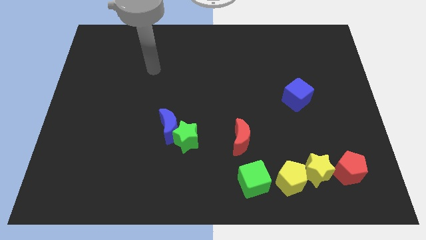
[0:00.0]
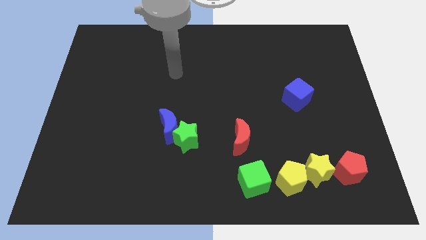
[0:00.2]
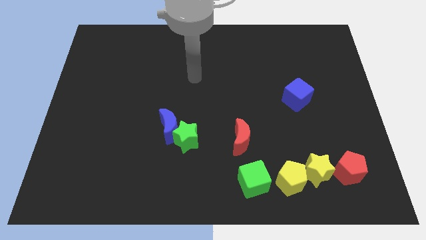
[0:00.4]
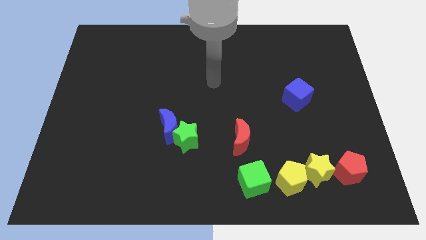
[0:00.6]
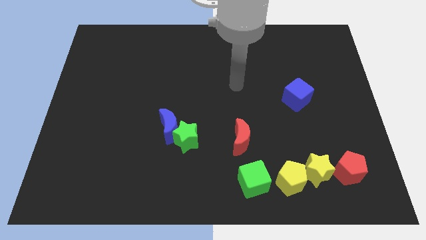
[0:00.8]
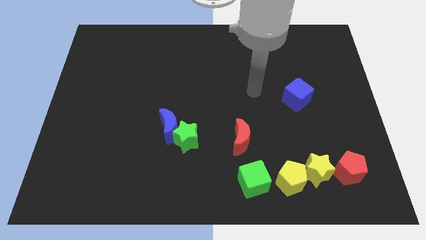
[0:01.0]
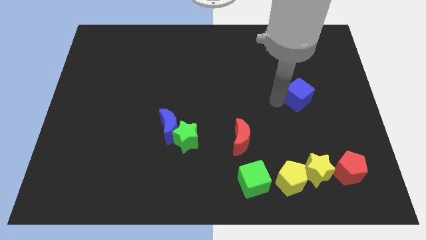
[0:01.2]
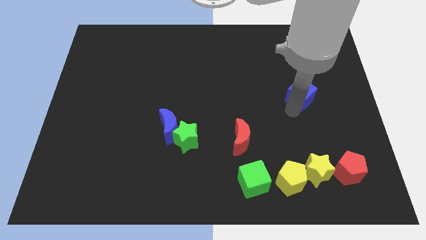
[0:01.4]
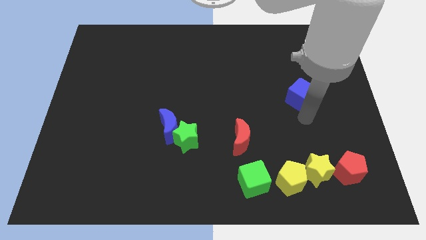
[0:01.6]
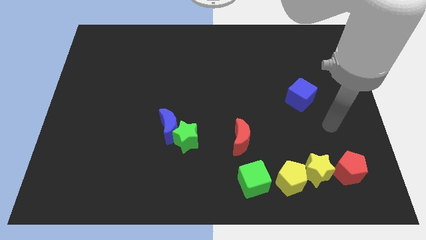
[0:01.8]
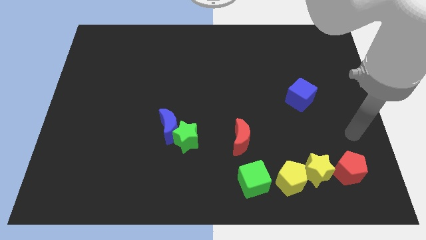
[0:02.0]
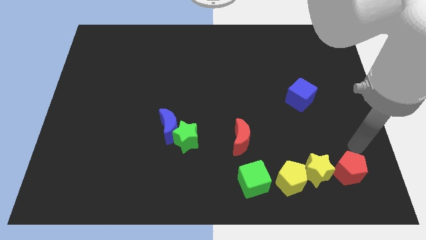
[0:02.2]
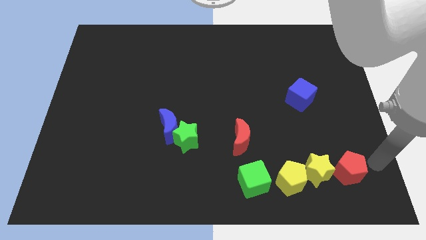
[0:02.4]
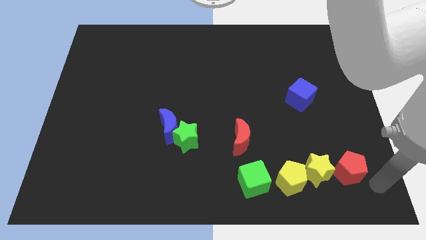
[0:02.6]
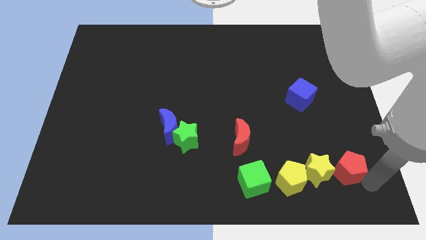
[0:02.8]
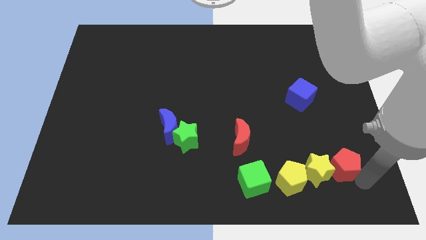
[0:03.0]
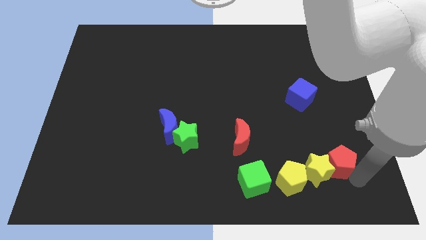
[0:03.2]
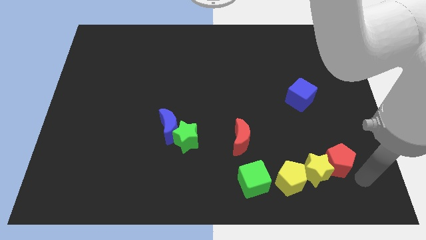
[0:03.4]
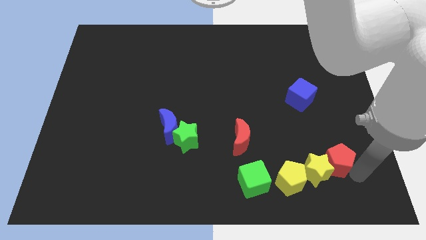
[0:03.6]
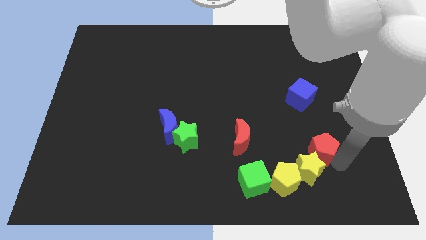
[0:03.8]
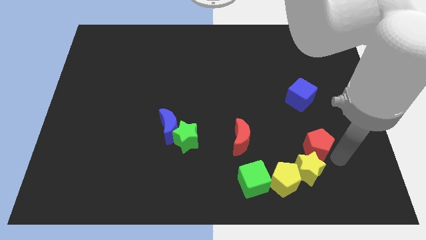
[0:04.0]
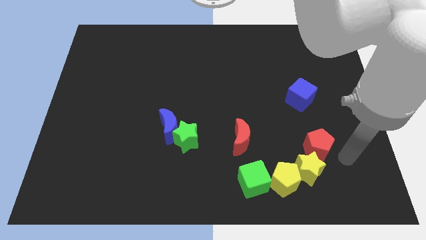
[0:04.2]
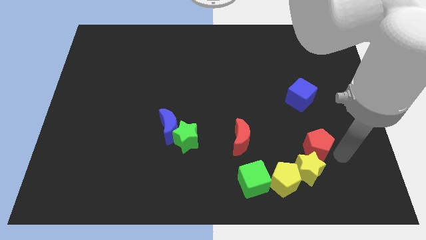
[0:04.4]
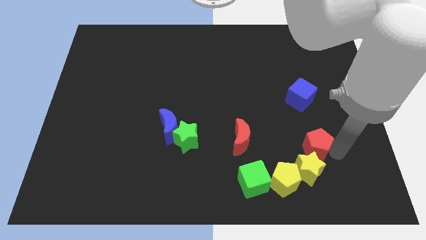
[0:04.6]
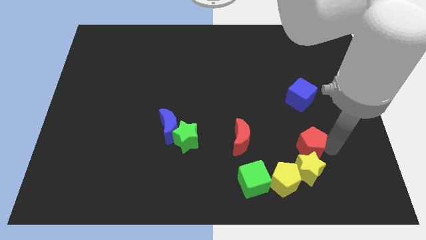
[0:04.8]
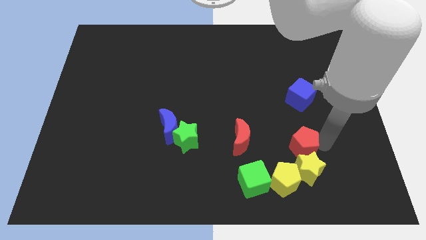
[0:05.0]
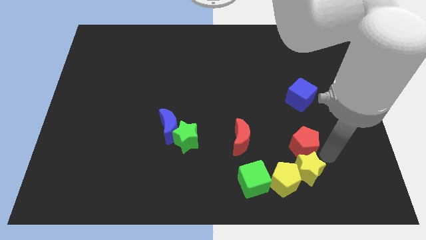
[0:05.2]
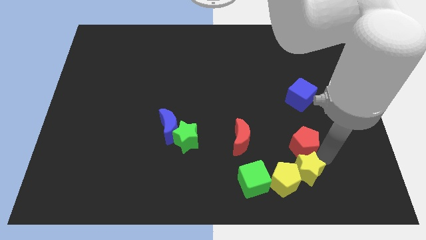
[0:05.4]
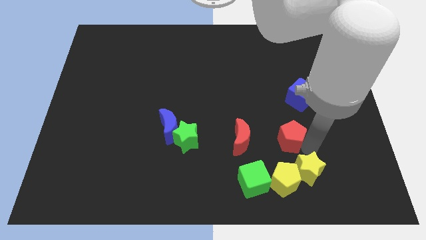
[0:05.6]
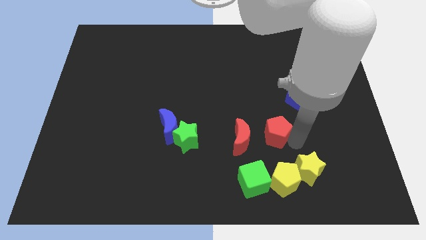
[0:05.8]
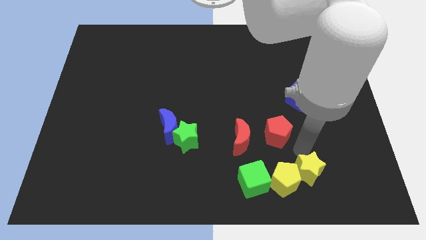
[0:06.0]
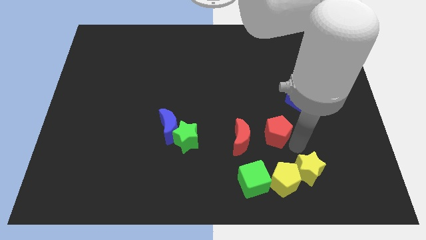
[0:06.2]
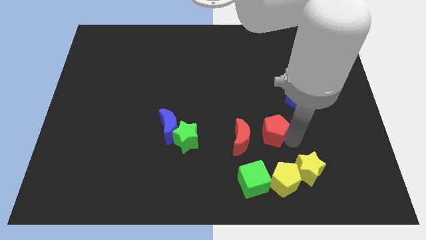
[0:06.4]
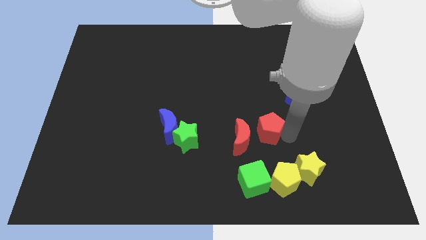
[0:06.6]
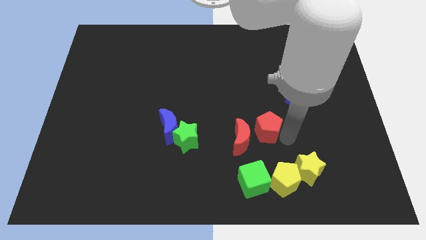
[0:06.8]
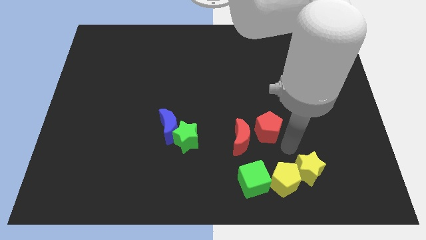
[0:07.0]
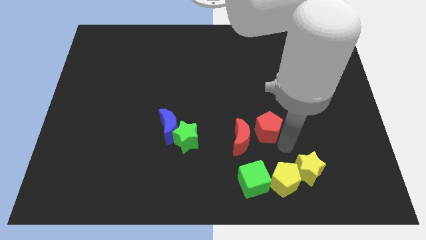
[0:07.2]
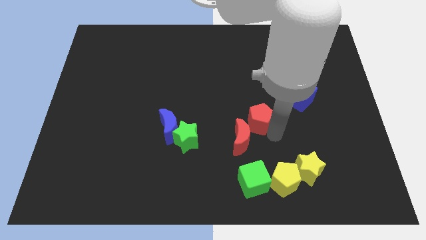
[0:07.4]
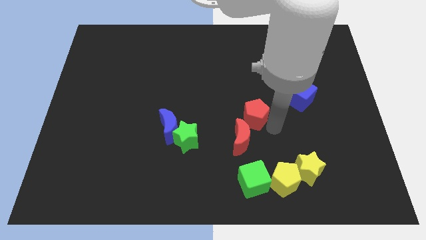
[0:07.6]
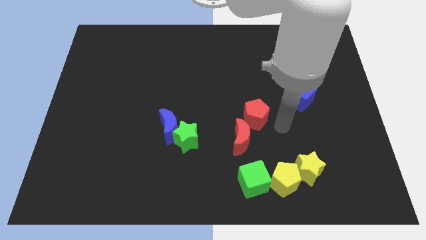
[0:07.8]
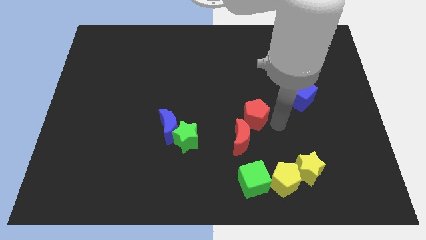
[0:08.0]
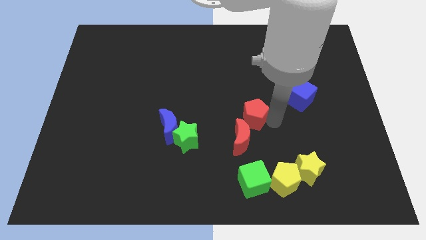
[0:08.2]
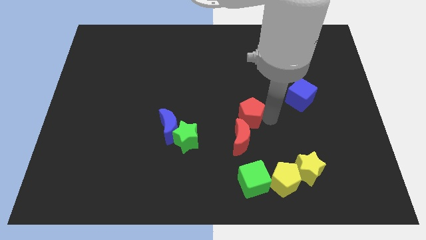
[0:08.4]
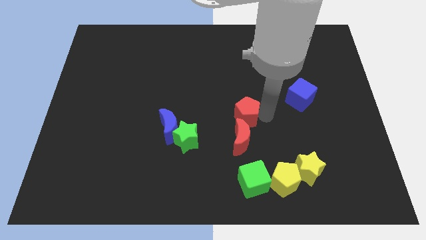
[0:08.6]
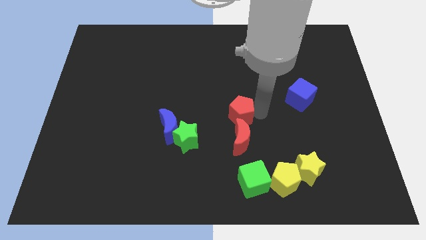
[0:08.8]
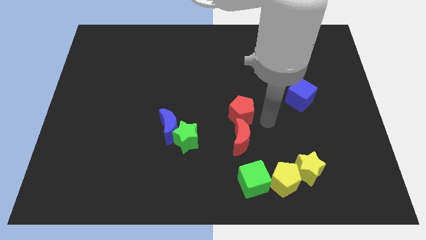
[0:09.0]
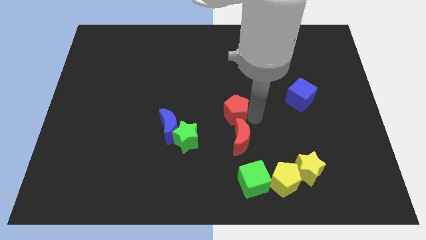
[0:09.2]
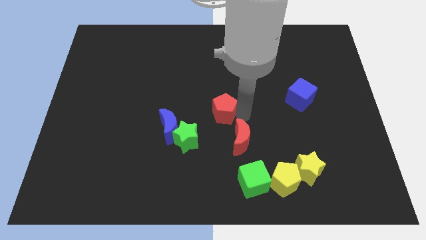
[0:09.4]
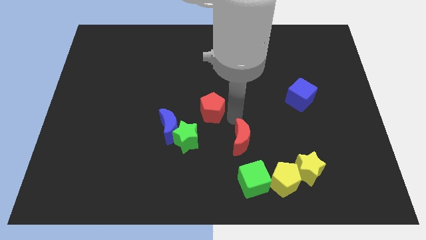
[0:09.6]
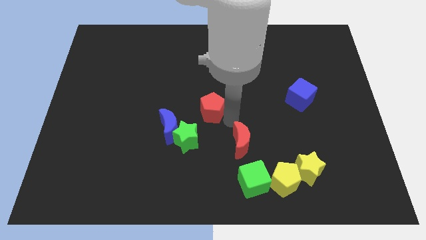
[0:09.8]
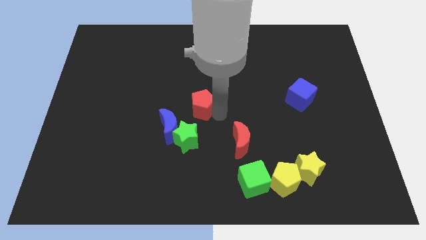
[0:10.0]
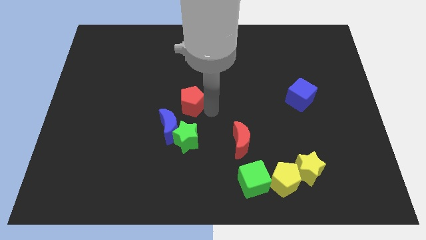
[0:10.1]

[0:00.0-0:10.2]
move the red pentagon to the top side of the blue moon

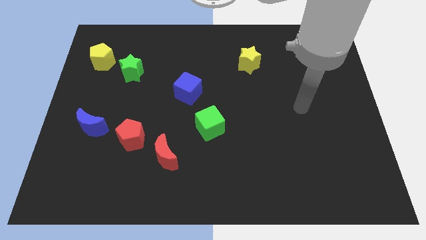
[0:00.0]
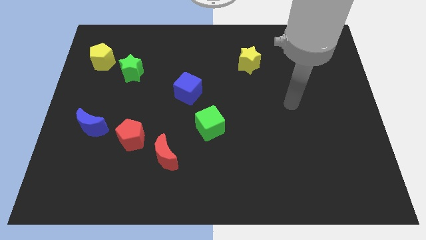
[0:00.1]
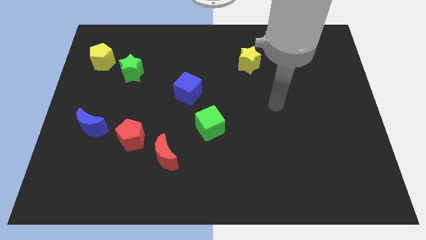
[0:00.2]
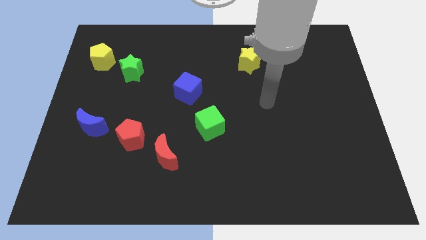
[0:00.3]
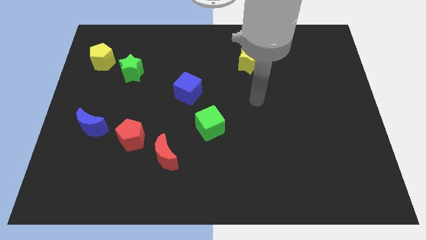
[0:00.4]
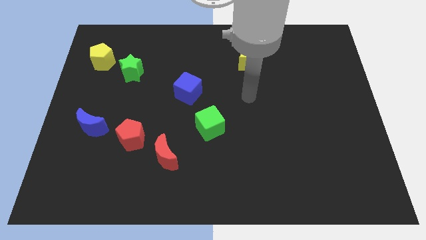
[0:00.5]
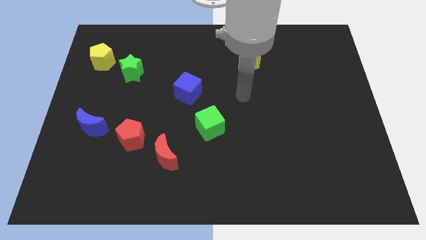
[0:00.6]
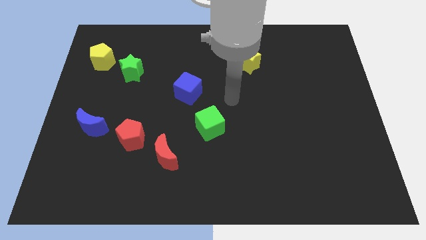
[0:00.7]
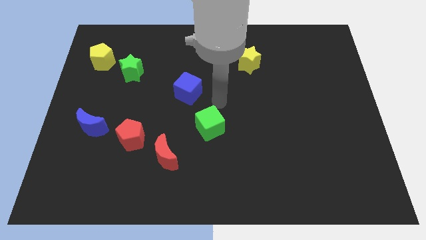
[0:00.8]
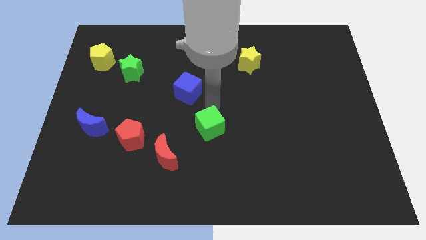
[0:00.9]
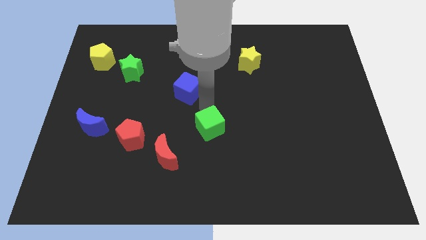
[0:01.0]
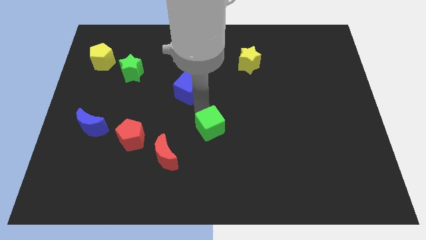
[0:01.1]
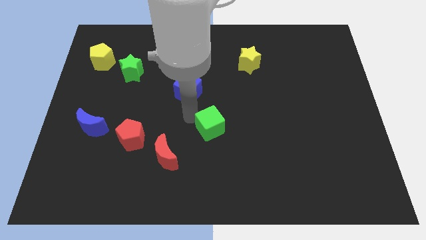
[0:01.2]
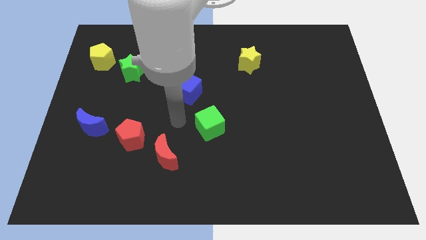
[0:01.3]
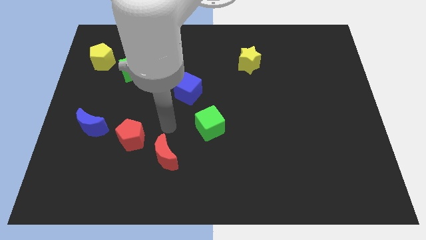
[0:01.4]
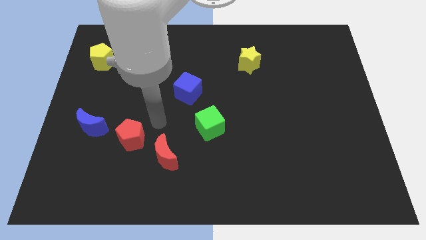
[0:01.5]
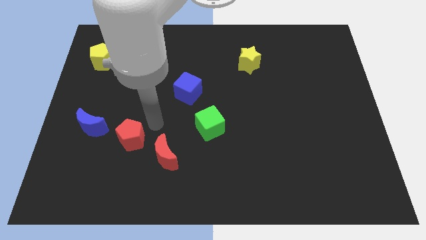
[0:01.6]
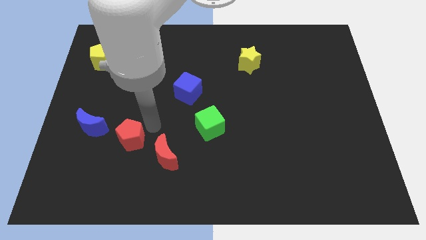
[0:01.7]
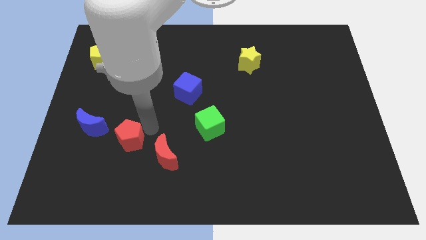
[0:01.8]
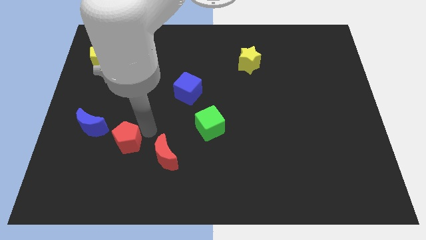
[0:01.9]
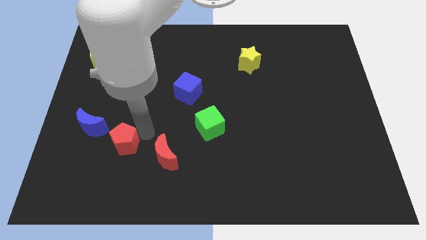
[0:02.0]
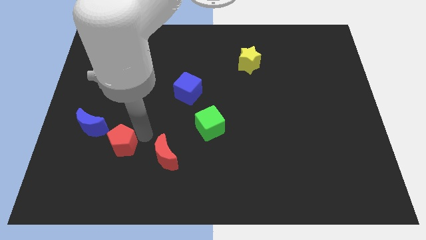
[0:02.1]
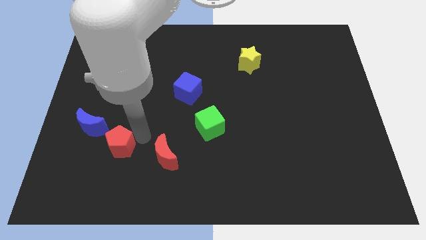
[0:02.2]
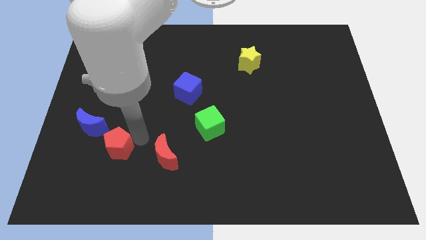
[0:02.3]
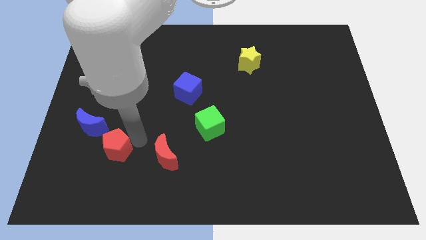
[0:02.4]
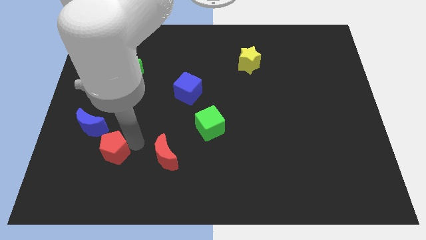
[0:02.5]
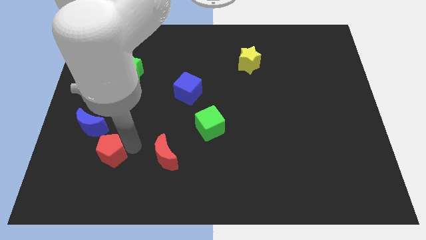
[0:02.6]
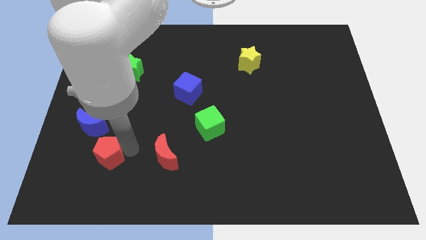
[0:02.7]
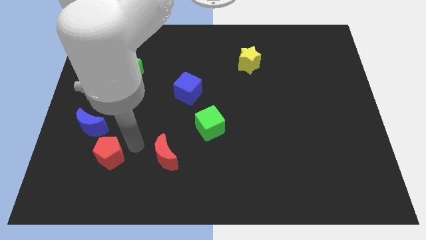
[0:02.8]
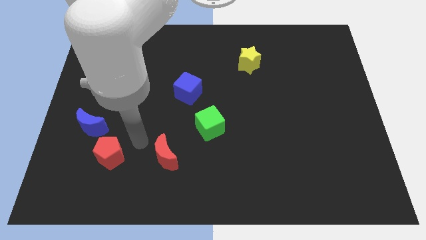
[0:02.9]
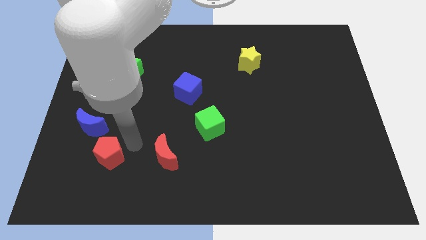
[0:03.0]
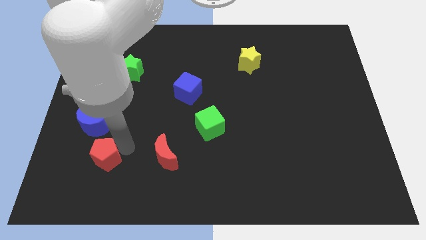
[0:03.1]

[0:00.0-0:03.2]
put the red pentagon to the bottom of the blue moon
